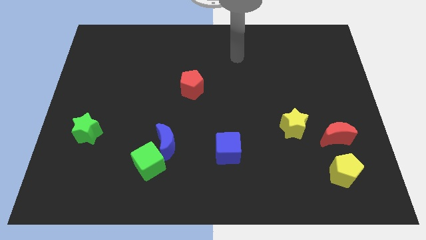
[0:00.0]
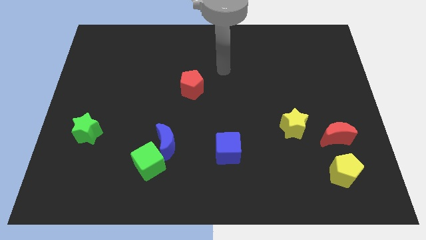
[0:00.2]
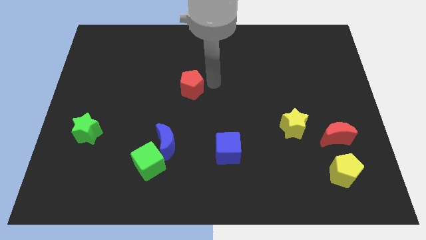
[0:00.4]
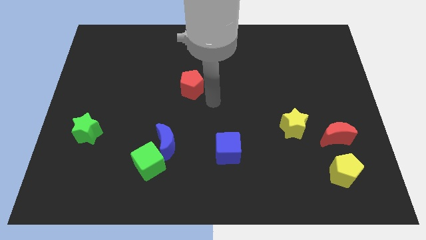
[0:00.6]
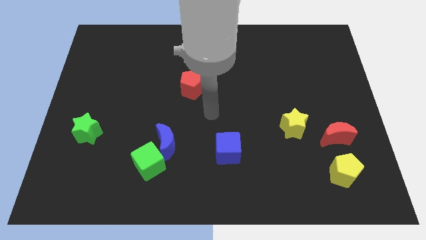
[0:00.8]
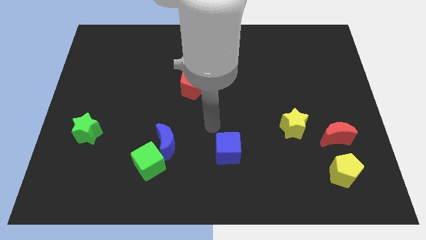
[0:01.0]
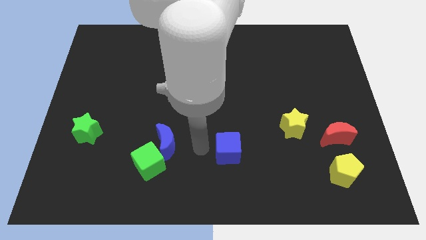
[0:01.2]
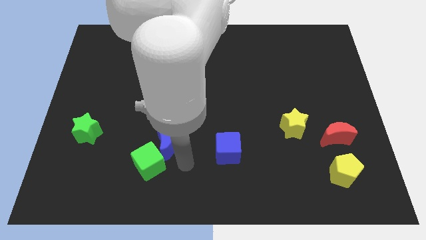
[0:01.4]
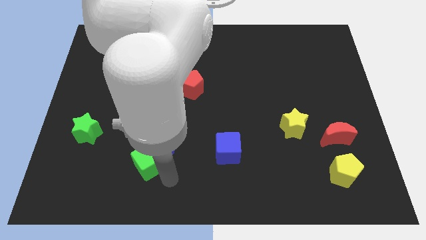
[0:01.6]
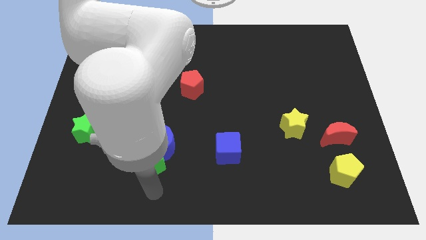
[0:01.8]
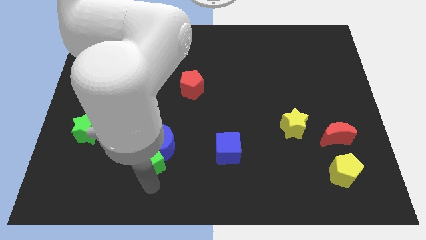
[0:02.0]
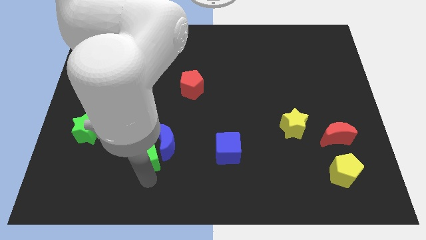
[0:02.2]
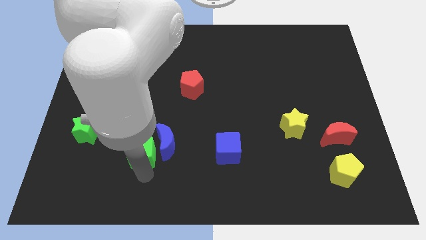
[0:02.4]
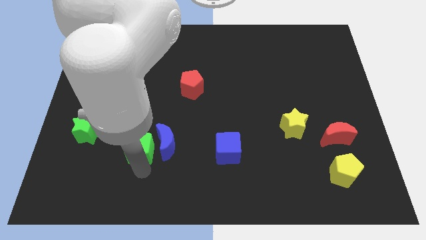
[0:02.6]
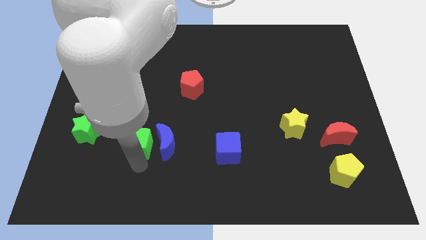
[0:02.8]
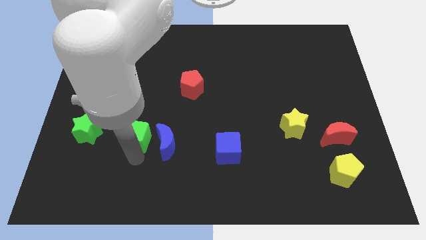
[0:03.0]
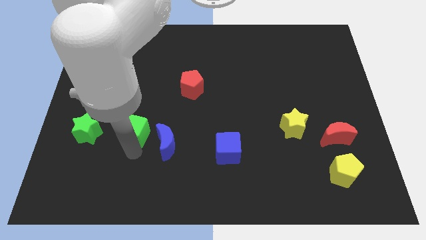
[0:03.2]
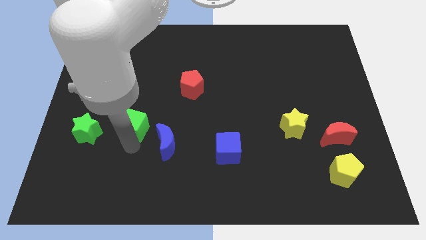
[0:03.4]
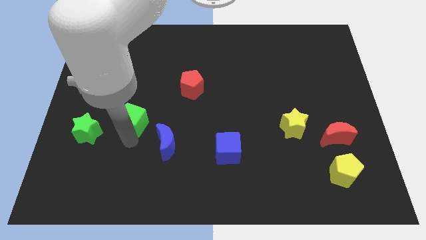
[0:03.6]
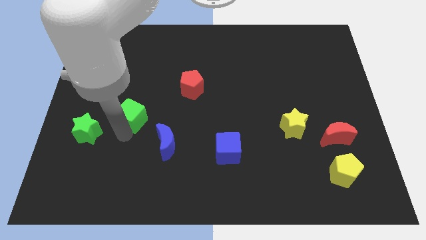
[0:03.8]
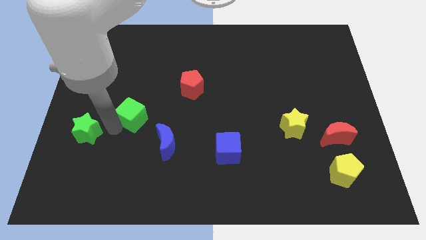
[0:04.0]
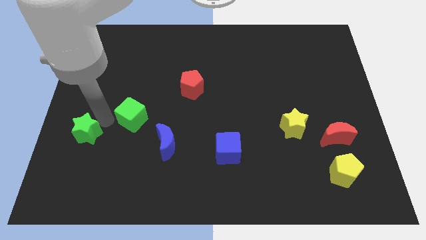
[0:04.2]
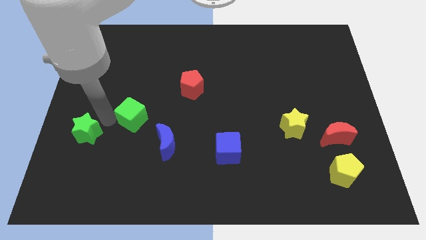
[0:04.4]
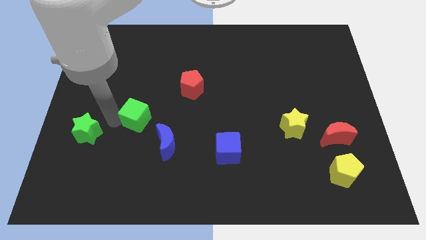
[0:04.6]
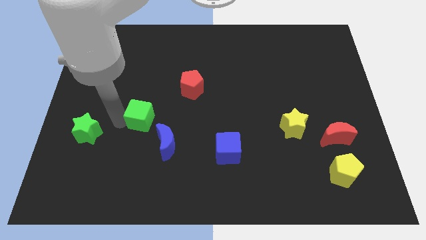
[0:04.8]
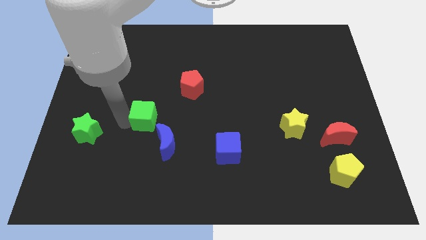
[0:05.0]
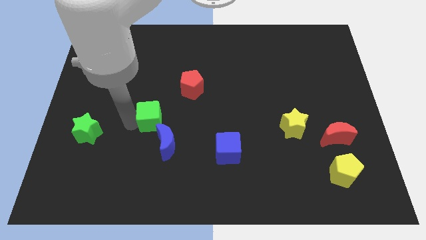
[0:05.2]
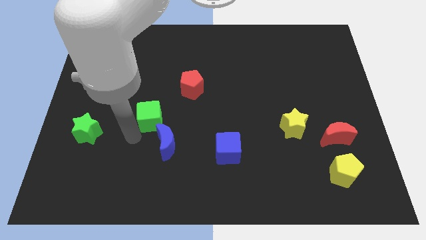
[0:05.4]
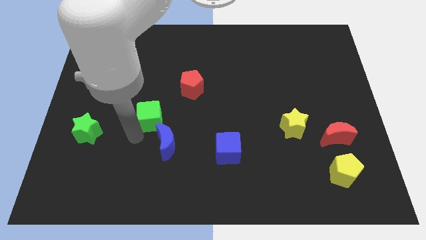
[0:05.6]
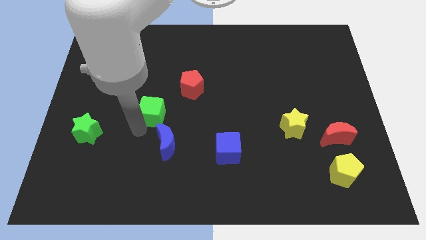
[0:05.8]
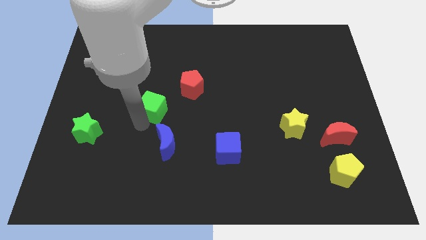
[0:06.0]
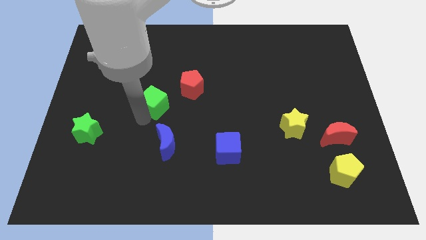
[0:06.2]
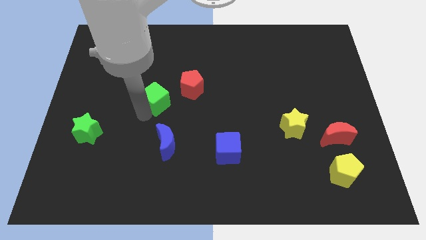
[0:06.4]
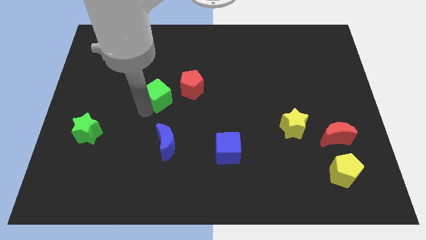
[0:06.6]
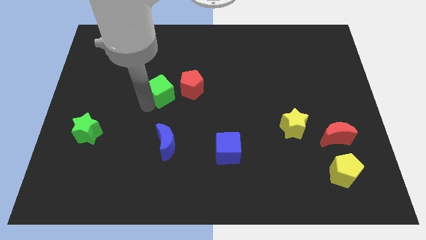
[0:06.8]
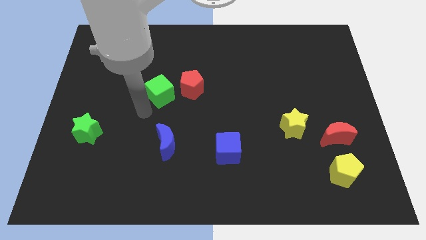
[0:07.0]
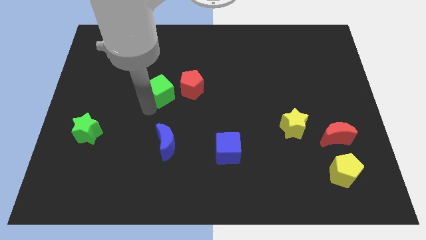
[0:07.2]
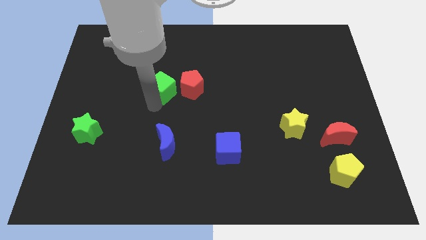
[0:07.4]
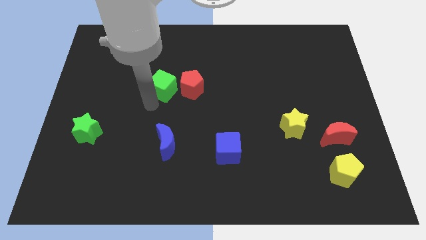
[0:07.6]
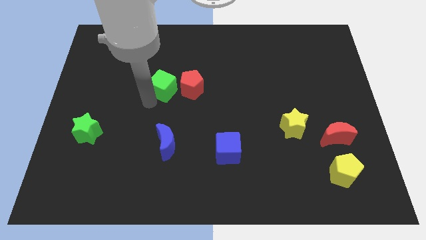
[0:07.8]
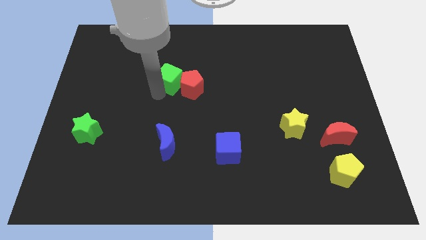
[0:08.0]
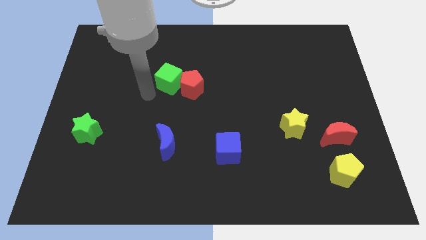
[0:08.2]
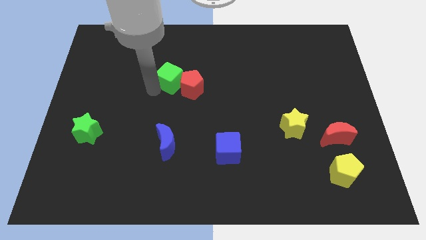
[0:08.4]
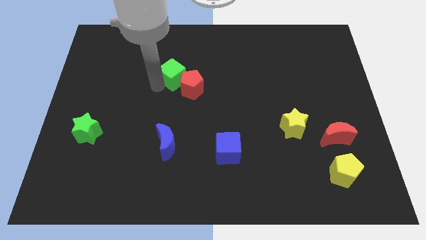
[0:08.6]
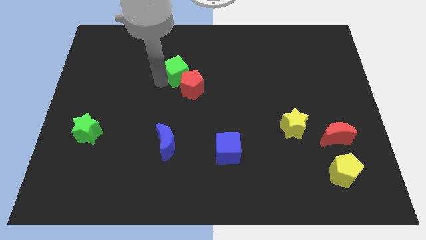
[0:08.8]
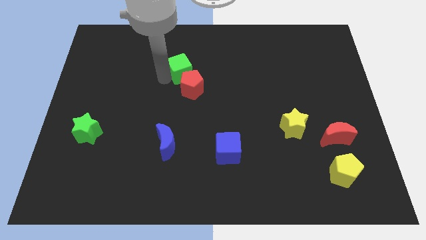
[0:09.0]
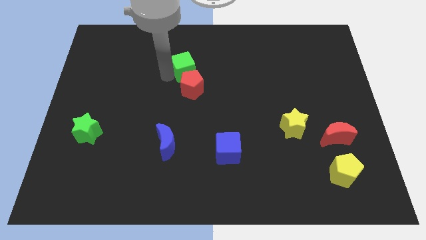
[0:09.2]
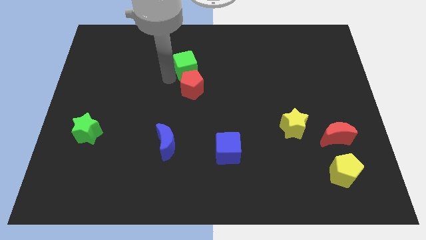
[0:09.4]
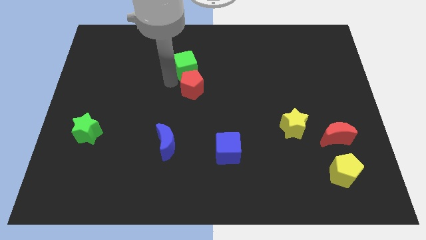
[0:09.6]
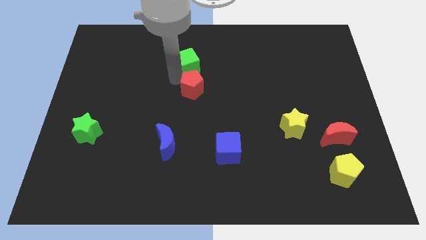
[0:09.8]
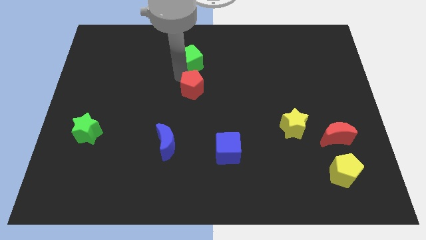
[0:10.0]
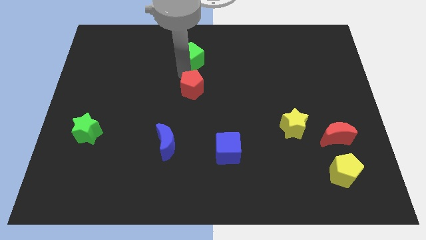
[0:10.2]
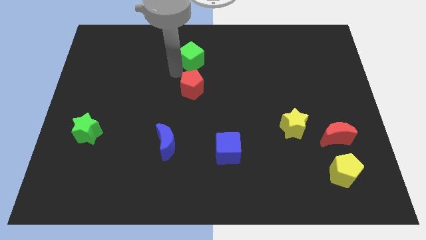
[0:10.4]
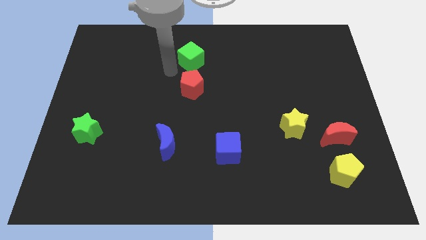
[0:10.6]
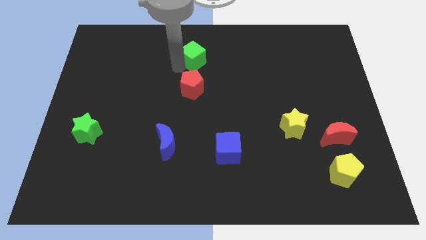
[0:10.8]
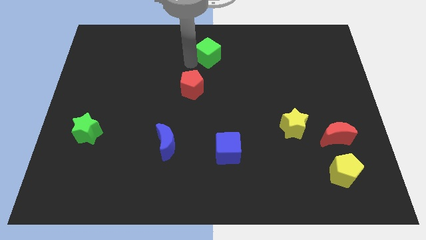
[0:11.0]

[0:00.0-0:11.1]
move the green cube to the top side

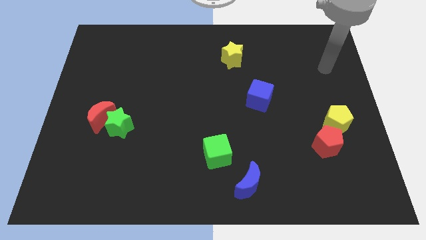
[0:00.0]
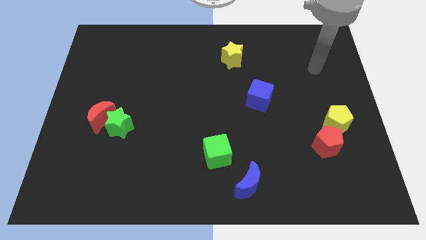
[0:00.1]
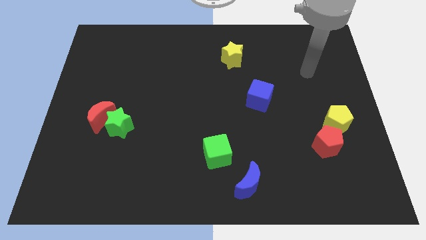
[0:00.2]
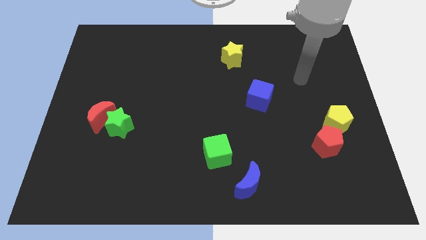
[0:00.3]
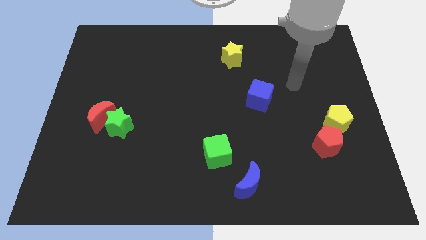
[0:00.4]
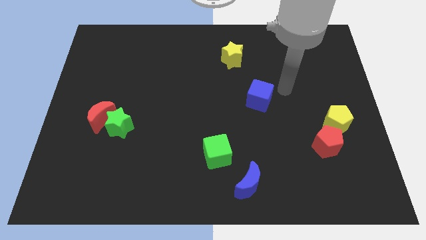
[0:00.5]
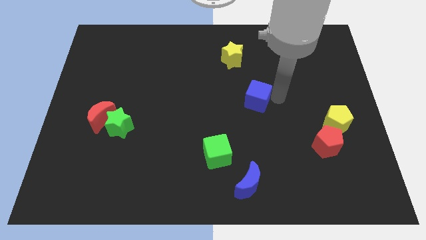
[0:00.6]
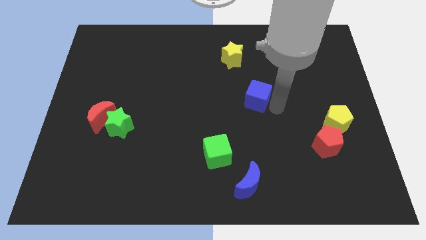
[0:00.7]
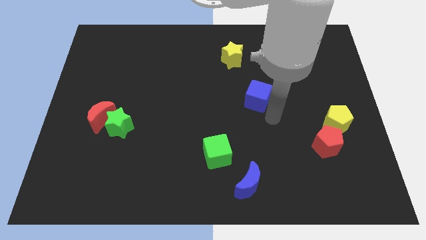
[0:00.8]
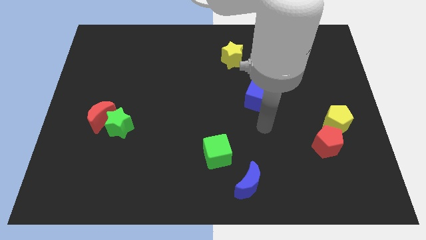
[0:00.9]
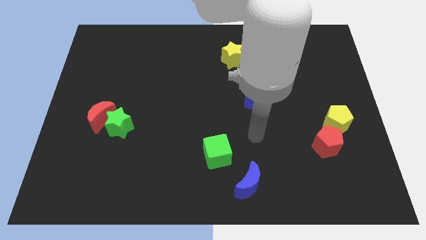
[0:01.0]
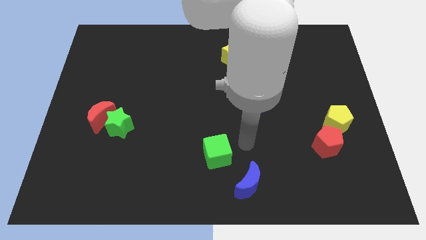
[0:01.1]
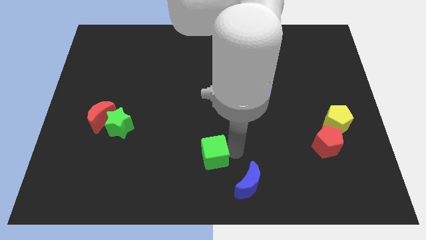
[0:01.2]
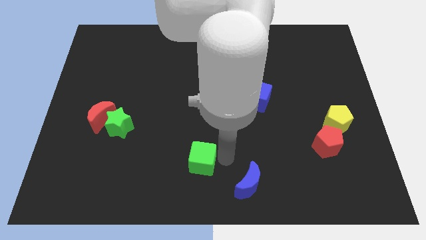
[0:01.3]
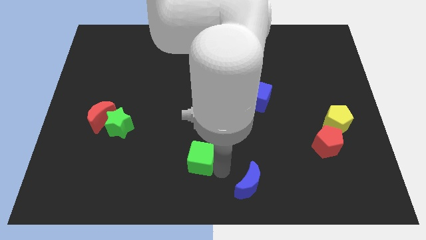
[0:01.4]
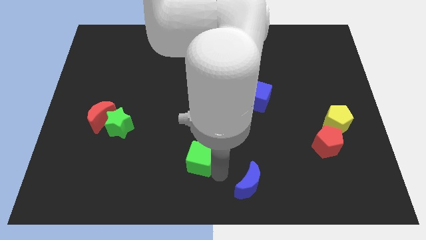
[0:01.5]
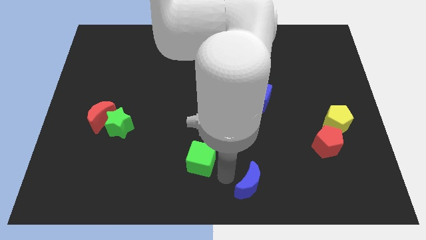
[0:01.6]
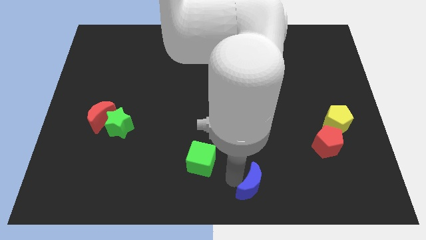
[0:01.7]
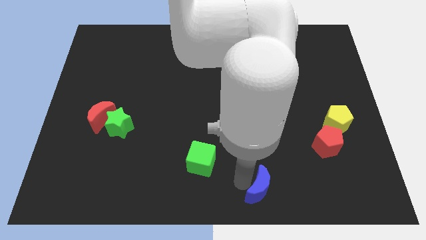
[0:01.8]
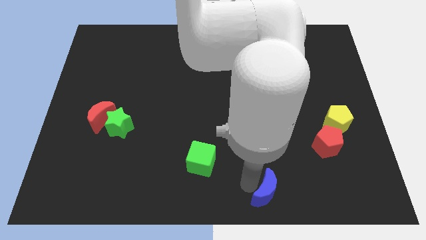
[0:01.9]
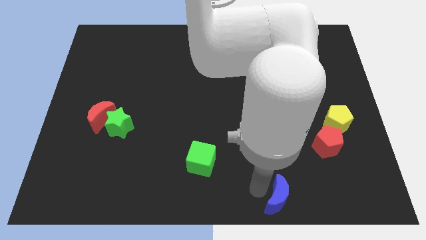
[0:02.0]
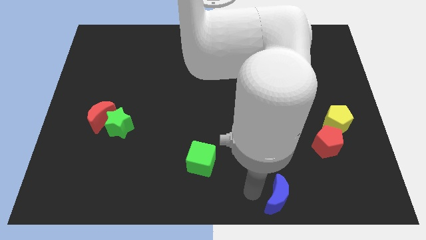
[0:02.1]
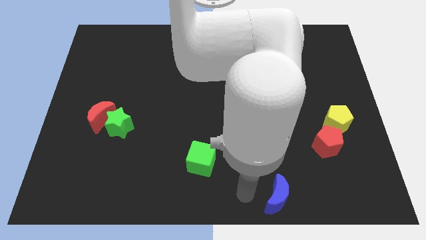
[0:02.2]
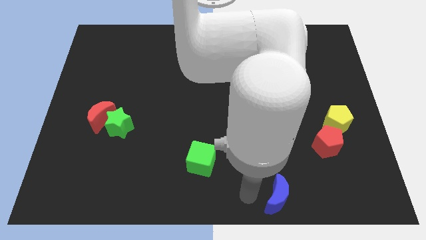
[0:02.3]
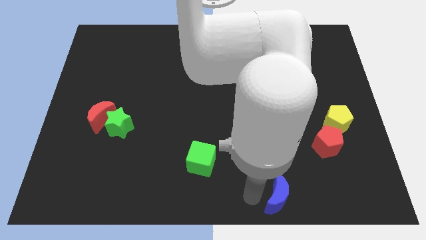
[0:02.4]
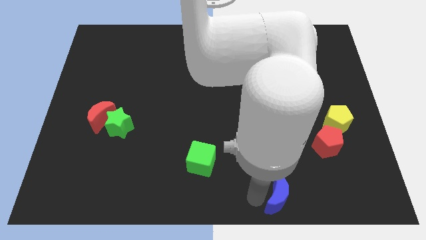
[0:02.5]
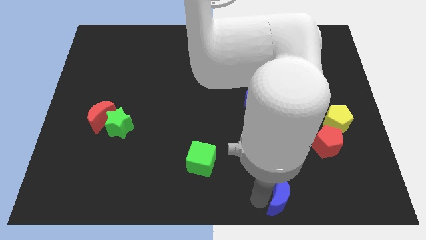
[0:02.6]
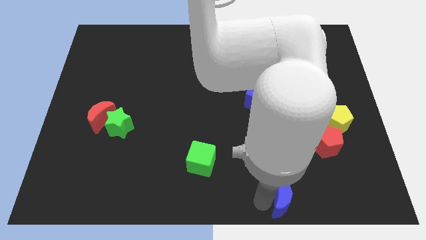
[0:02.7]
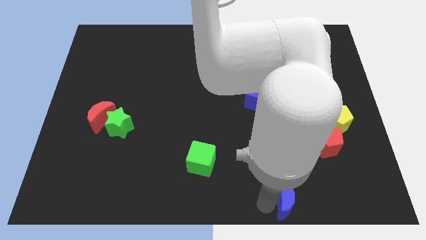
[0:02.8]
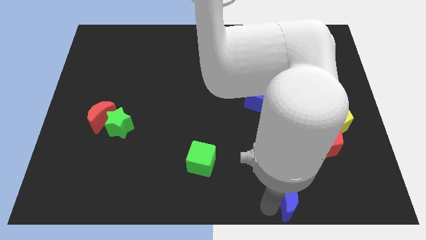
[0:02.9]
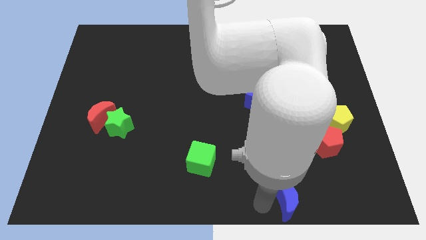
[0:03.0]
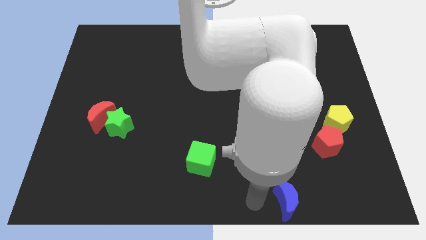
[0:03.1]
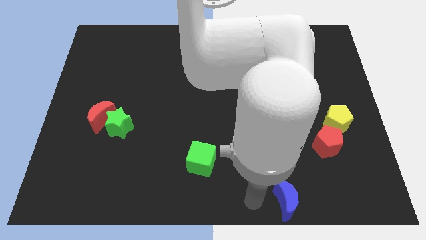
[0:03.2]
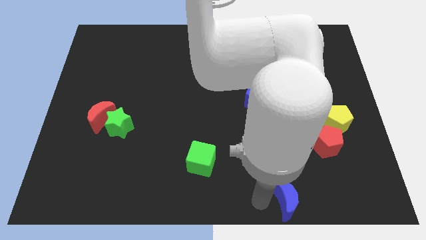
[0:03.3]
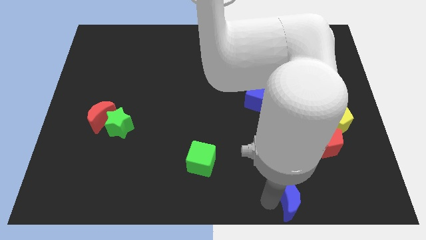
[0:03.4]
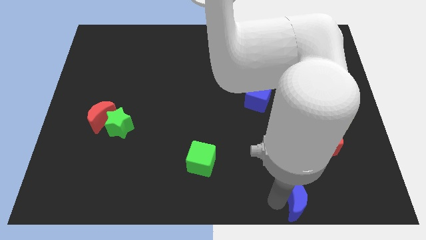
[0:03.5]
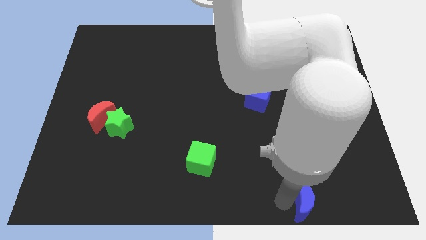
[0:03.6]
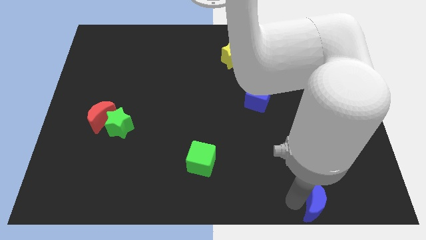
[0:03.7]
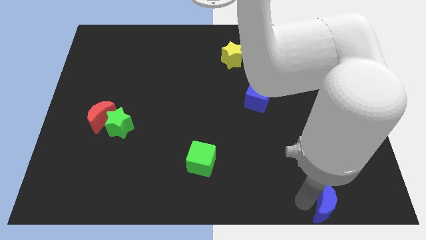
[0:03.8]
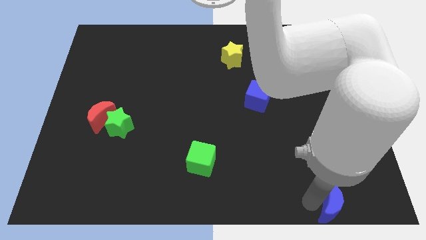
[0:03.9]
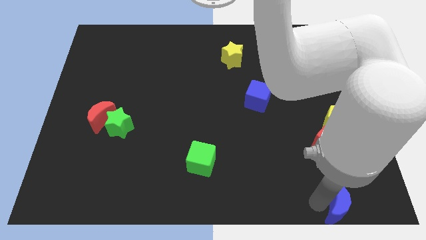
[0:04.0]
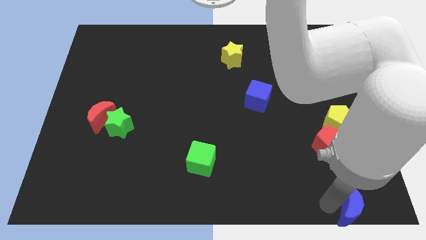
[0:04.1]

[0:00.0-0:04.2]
push the blue moon to the lower right corner
